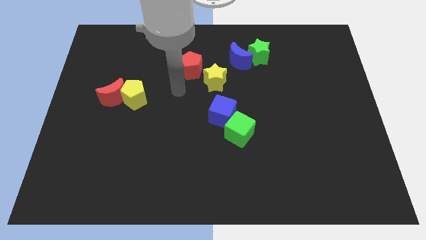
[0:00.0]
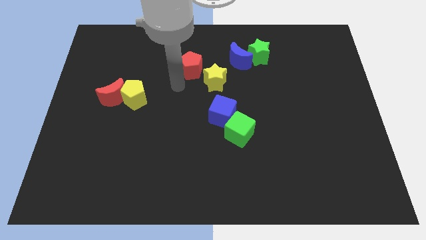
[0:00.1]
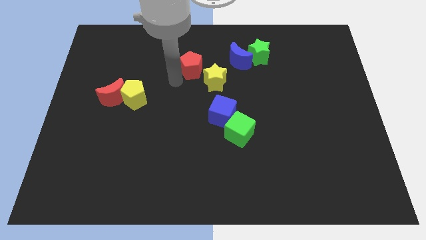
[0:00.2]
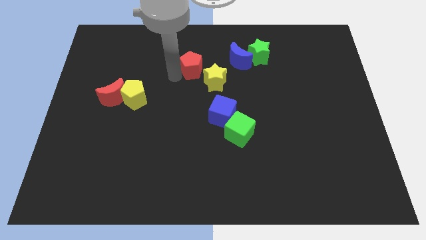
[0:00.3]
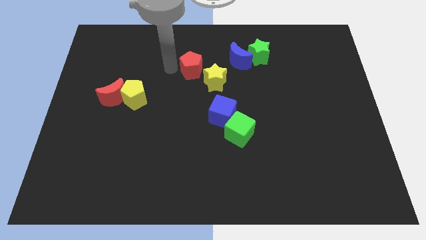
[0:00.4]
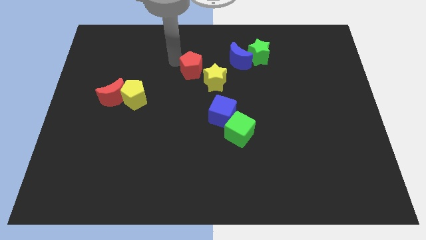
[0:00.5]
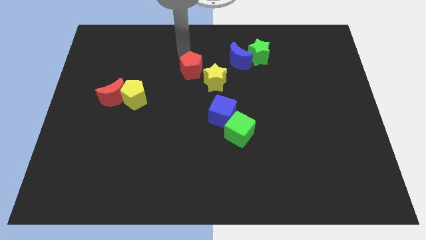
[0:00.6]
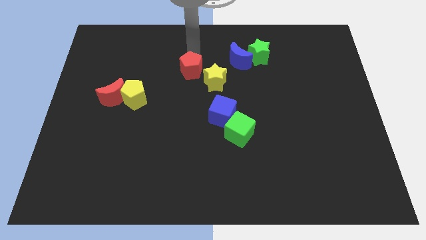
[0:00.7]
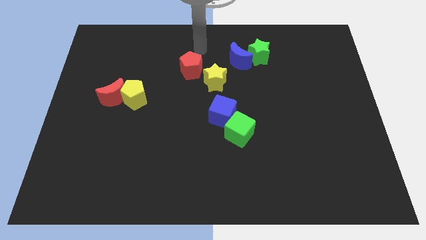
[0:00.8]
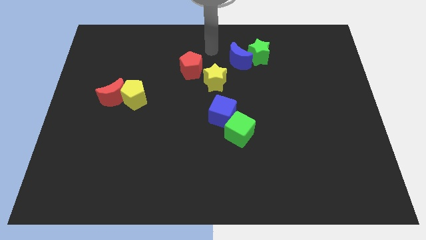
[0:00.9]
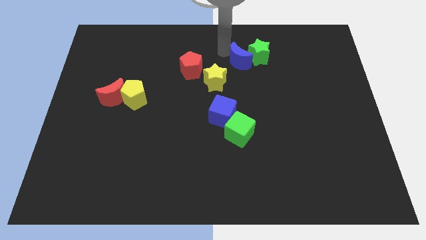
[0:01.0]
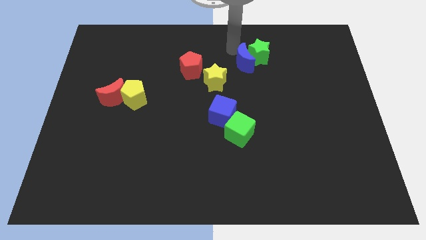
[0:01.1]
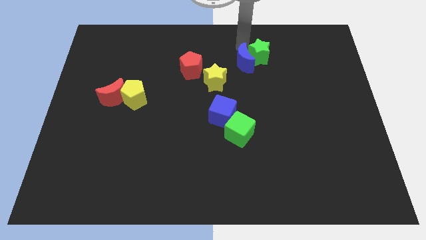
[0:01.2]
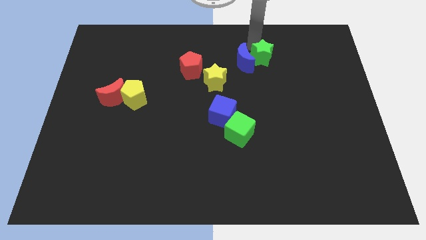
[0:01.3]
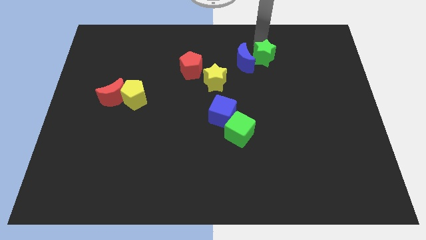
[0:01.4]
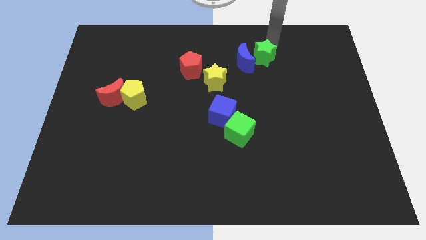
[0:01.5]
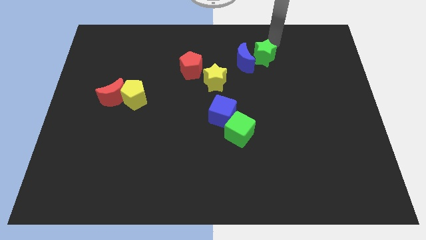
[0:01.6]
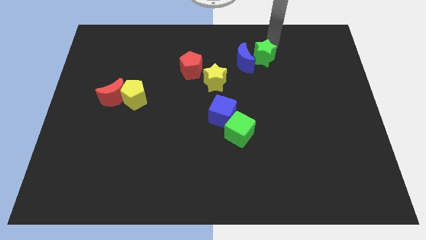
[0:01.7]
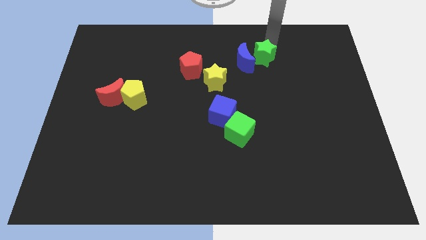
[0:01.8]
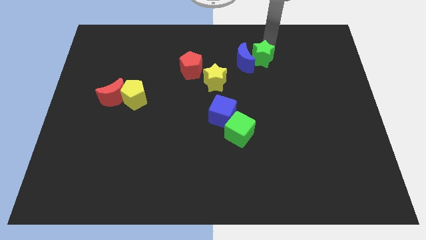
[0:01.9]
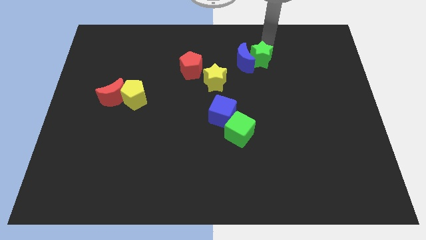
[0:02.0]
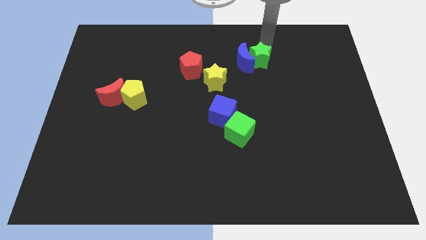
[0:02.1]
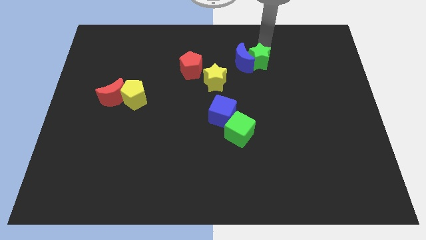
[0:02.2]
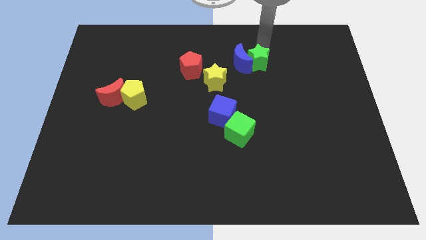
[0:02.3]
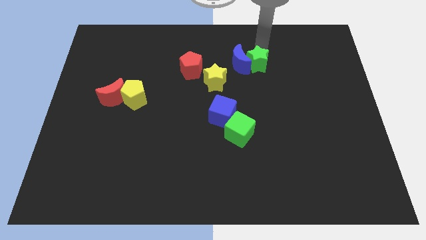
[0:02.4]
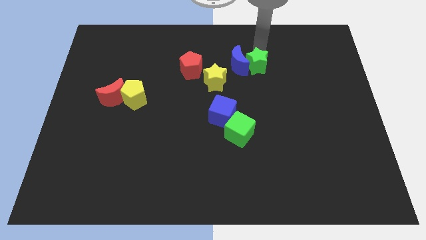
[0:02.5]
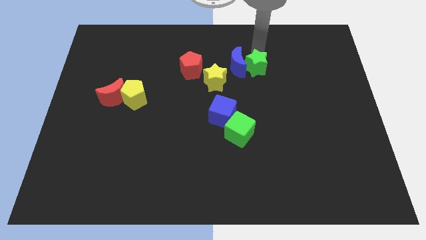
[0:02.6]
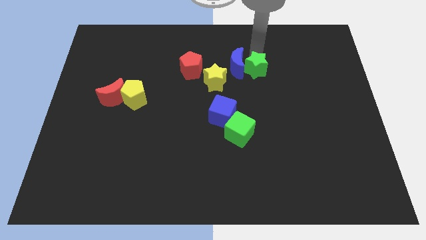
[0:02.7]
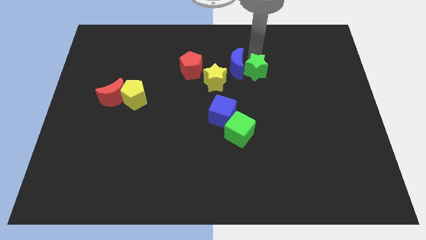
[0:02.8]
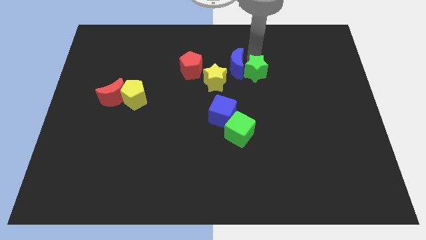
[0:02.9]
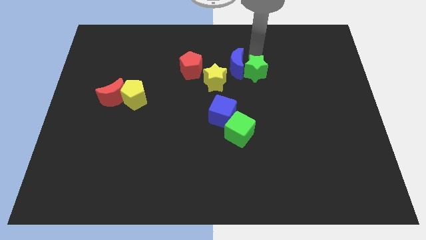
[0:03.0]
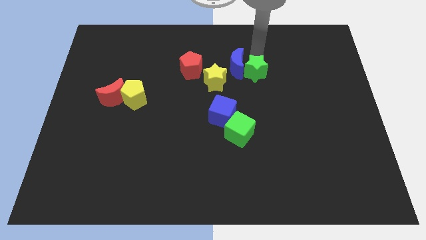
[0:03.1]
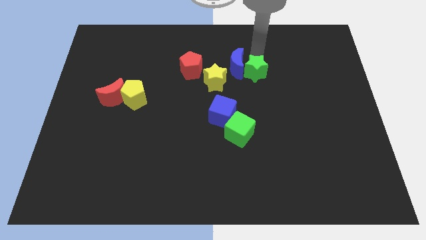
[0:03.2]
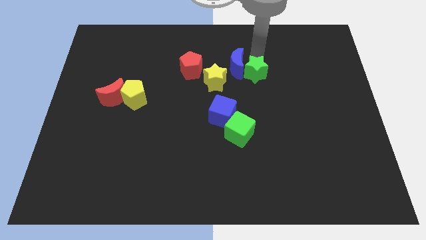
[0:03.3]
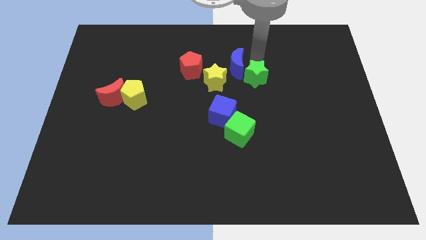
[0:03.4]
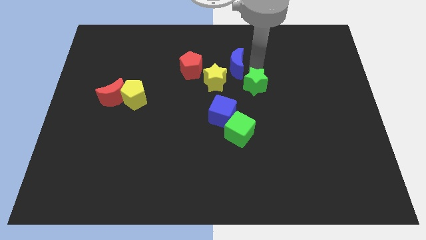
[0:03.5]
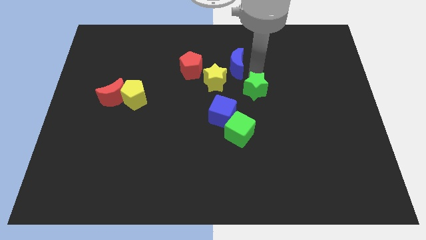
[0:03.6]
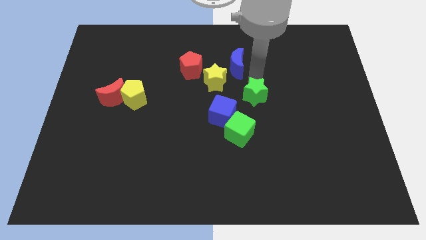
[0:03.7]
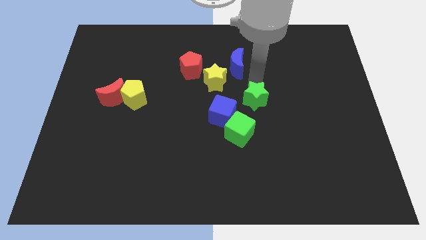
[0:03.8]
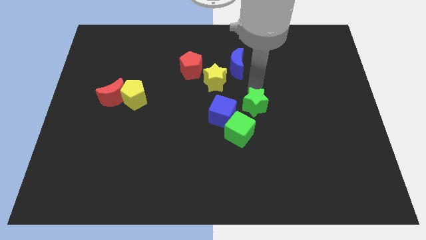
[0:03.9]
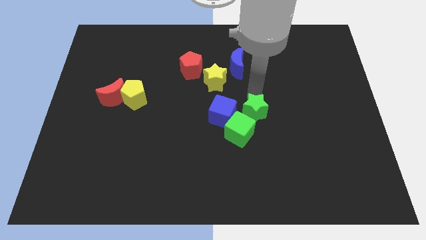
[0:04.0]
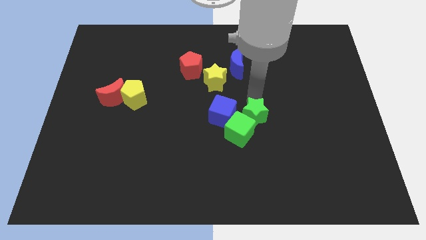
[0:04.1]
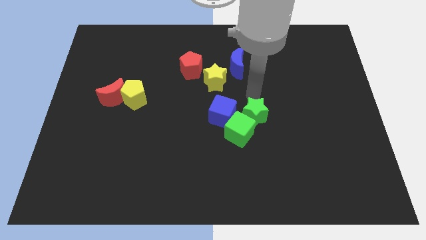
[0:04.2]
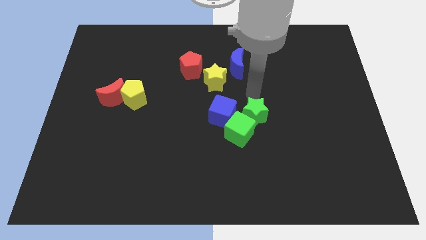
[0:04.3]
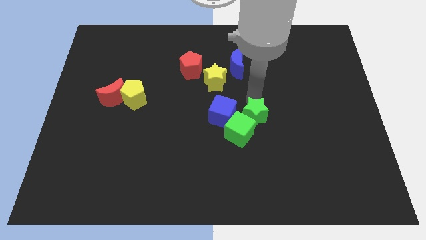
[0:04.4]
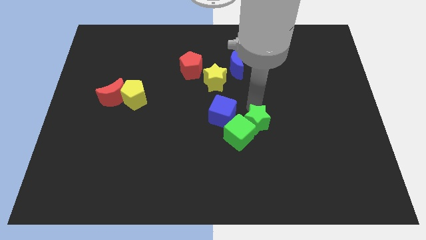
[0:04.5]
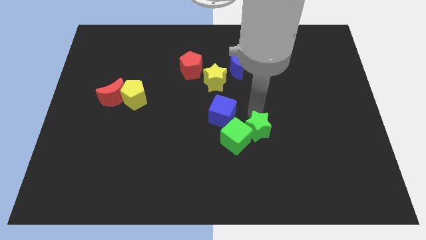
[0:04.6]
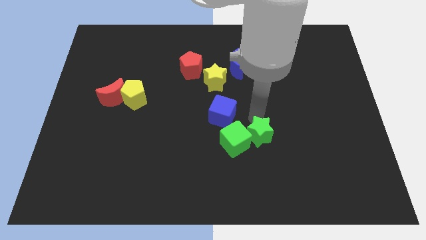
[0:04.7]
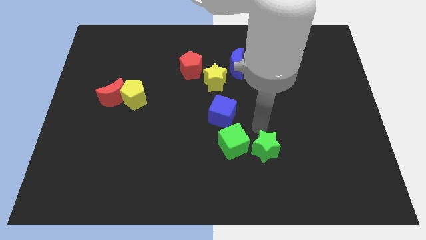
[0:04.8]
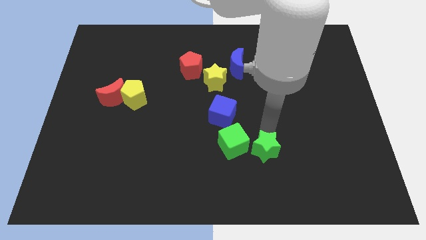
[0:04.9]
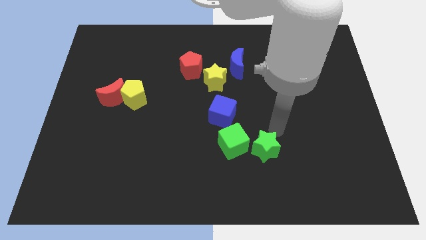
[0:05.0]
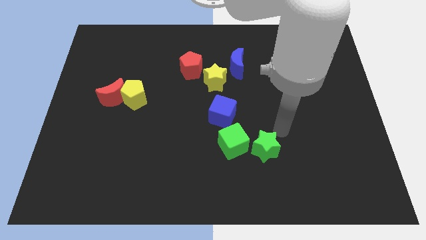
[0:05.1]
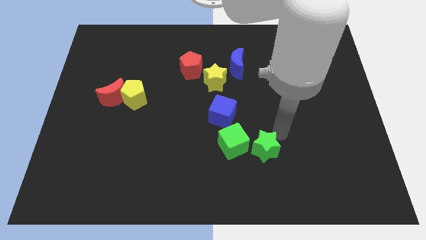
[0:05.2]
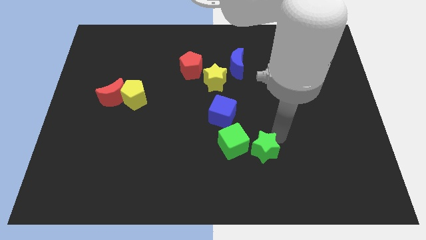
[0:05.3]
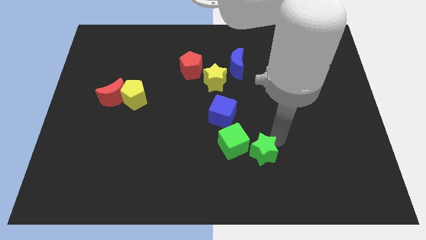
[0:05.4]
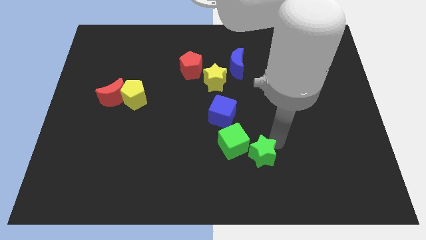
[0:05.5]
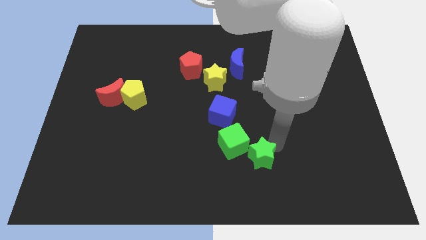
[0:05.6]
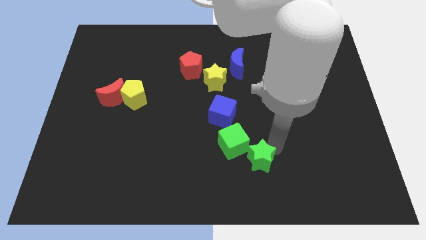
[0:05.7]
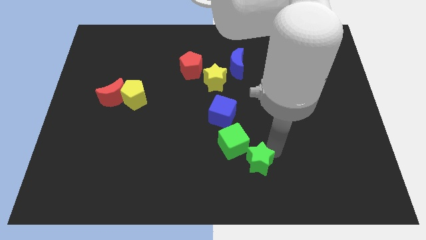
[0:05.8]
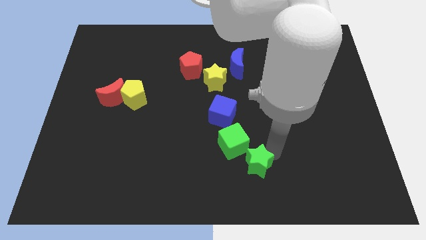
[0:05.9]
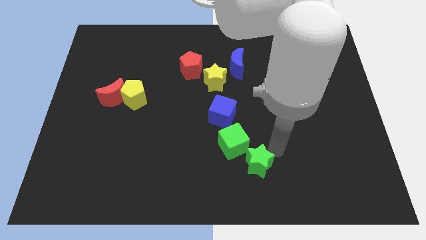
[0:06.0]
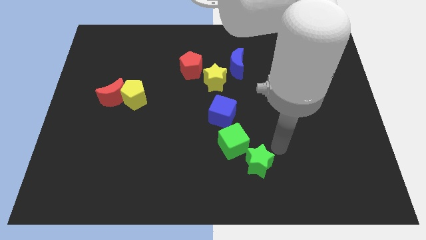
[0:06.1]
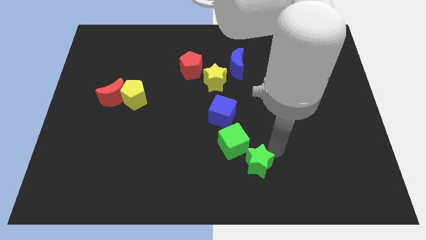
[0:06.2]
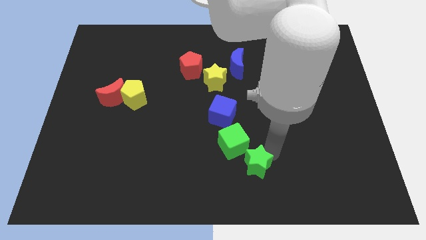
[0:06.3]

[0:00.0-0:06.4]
put the green star to the bottom side

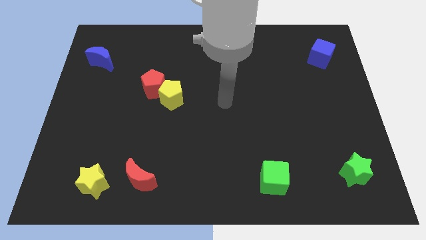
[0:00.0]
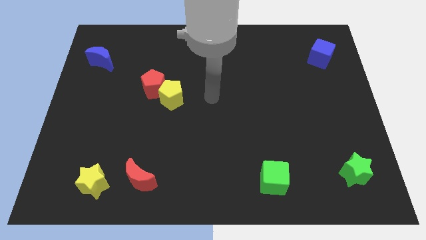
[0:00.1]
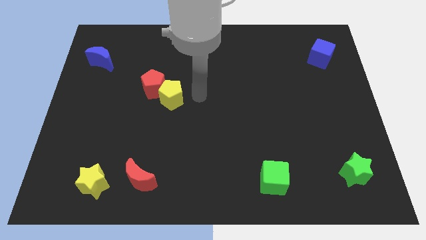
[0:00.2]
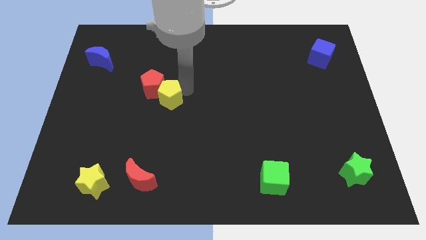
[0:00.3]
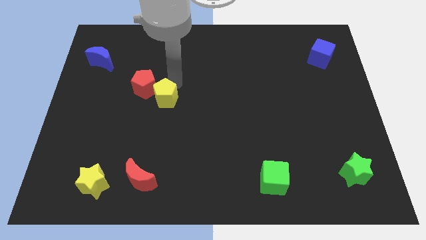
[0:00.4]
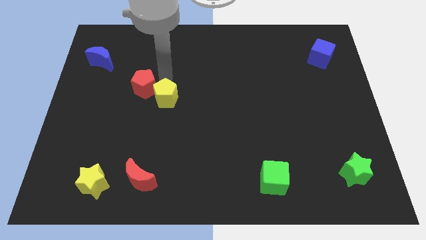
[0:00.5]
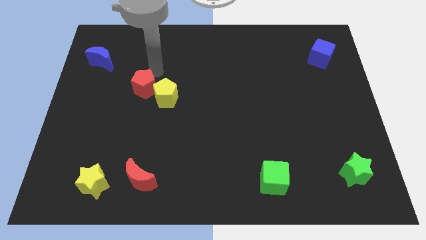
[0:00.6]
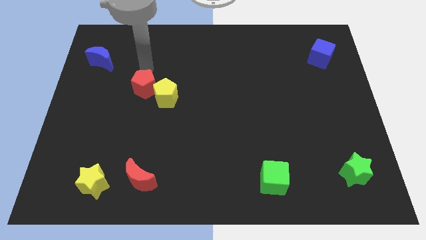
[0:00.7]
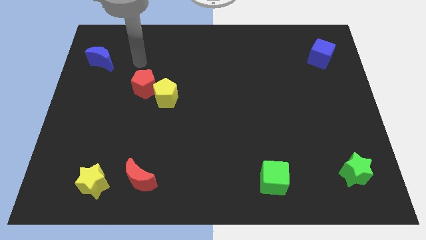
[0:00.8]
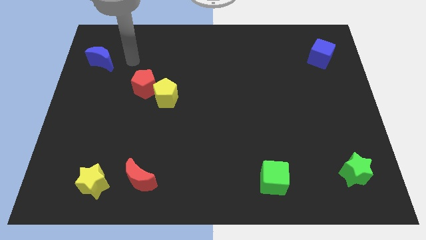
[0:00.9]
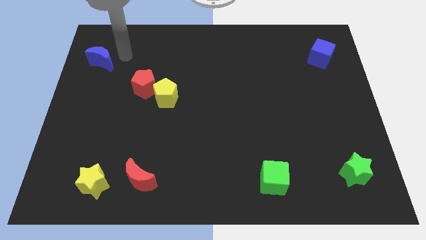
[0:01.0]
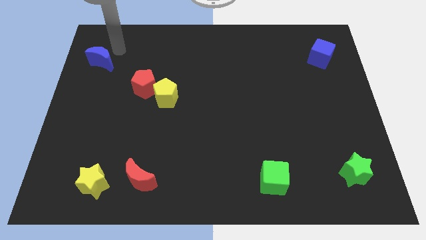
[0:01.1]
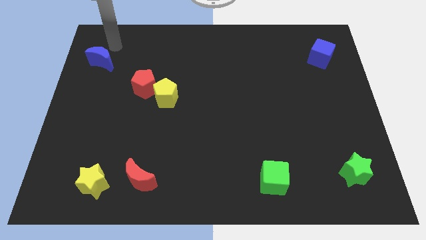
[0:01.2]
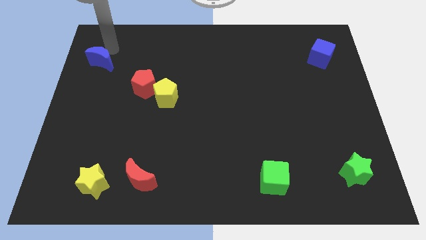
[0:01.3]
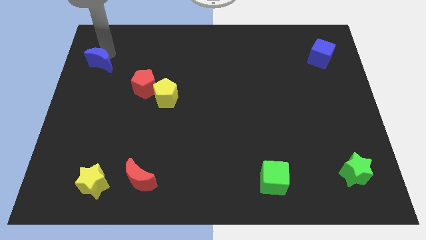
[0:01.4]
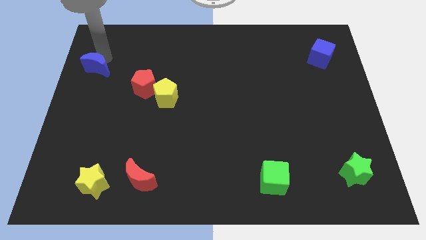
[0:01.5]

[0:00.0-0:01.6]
move the blue moon to the left side of the board
